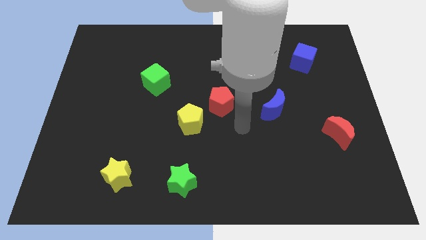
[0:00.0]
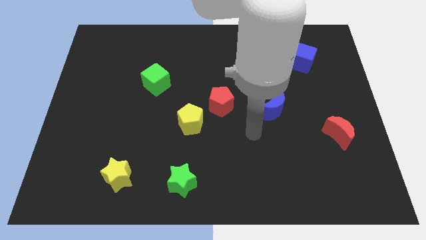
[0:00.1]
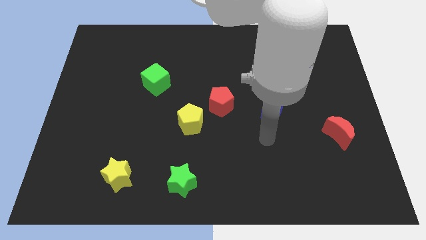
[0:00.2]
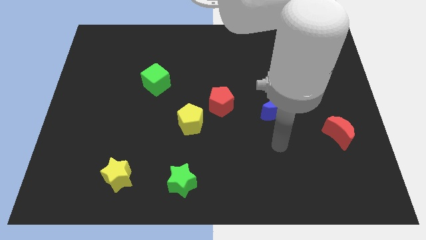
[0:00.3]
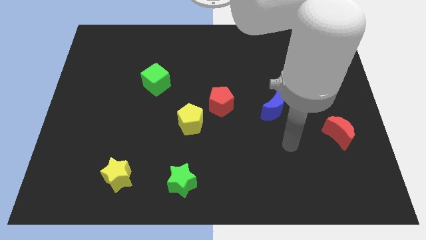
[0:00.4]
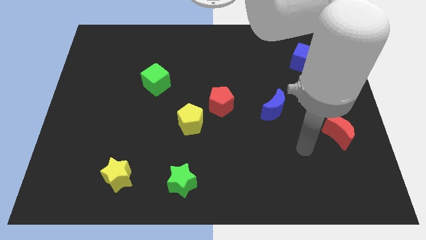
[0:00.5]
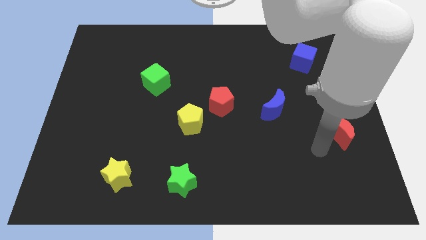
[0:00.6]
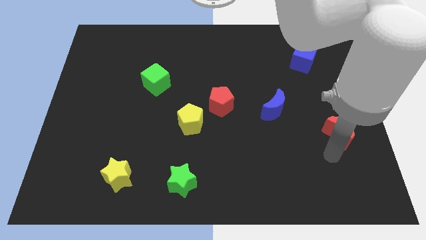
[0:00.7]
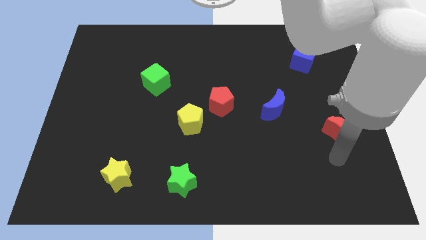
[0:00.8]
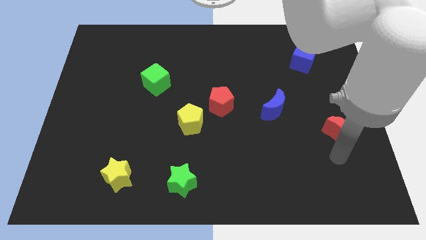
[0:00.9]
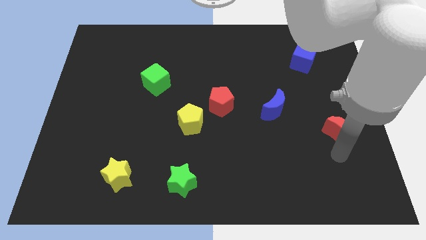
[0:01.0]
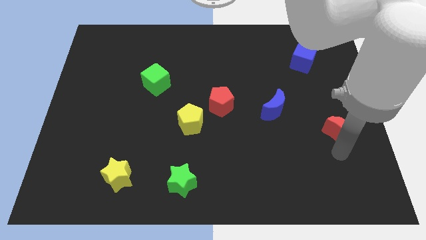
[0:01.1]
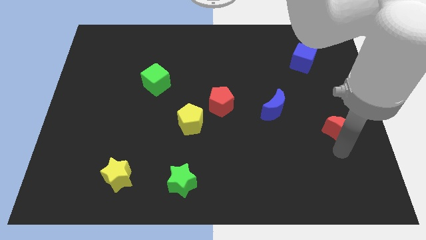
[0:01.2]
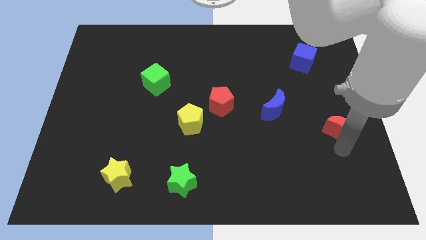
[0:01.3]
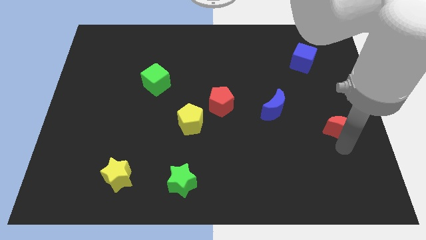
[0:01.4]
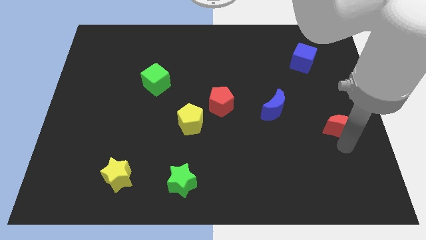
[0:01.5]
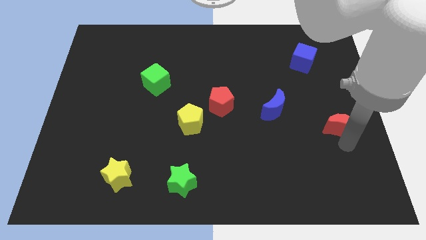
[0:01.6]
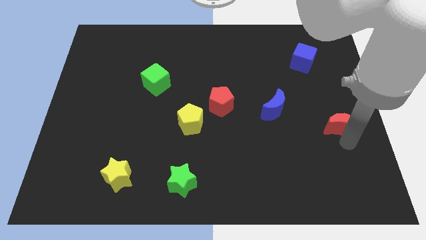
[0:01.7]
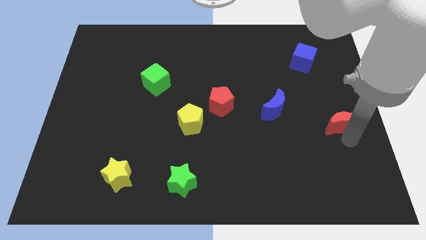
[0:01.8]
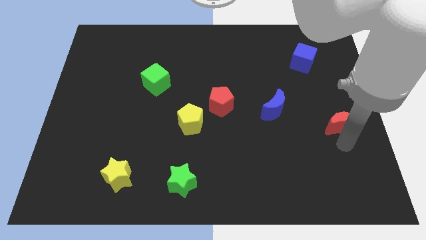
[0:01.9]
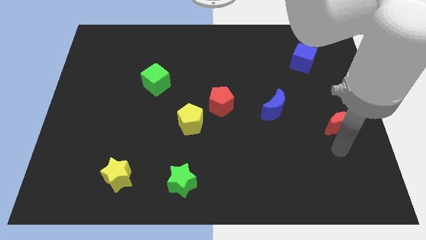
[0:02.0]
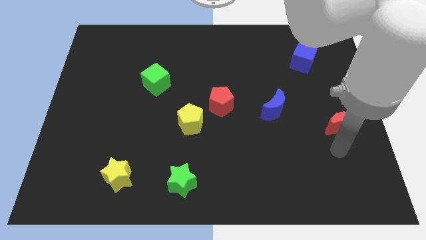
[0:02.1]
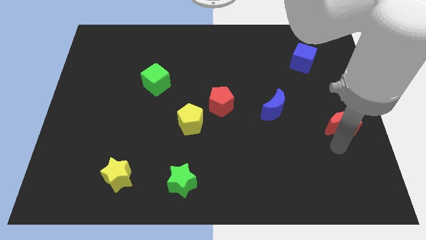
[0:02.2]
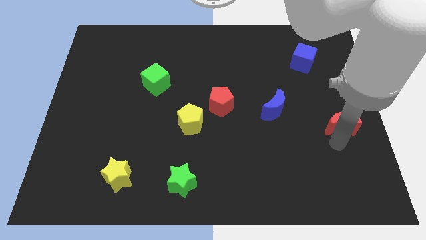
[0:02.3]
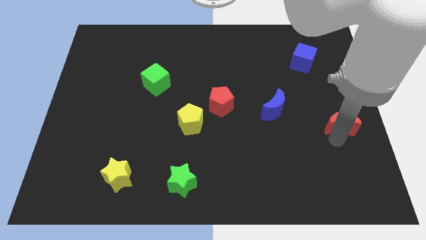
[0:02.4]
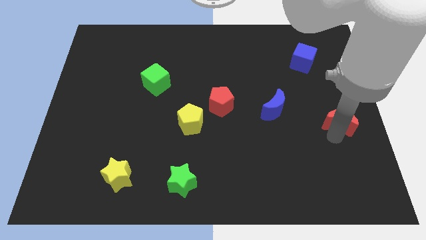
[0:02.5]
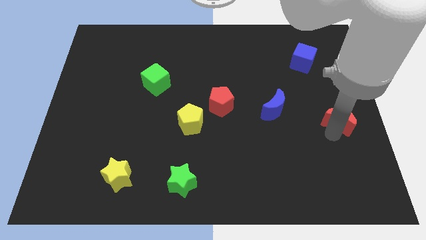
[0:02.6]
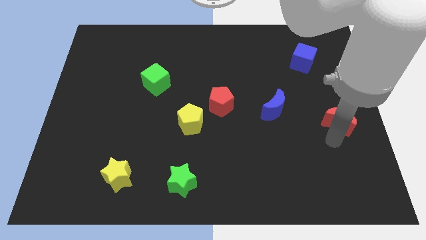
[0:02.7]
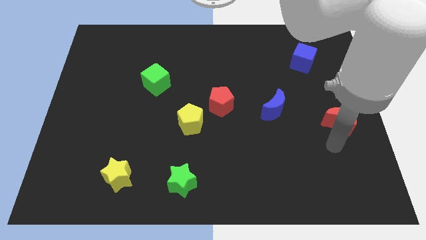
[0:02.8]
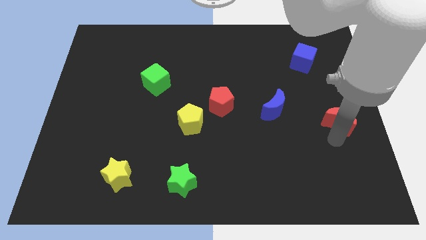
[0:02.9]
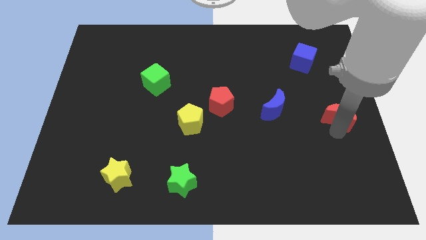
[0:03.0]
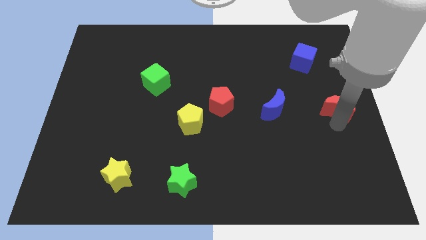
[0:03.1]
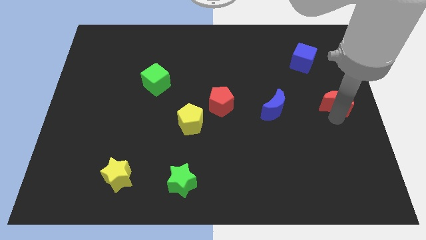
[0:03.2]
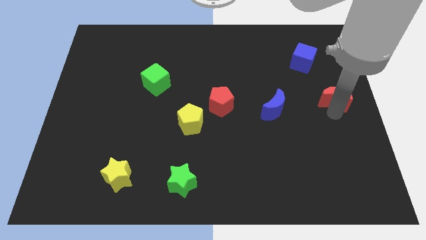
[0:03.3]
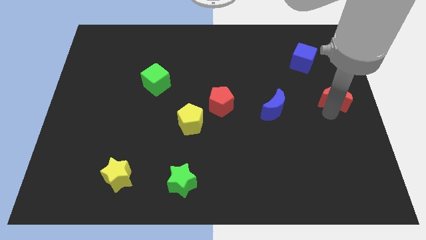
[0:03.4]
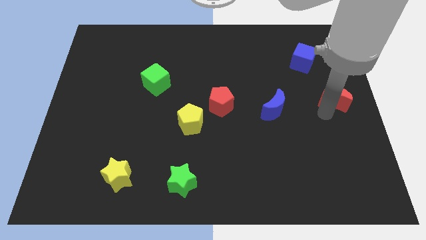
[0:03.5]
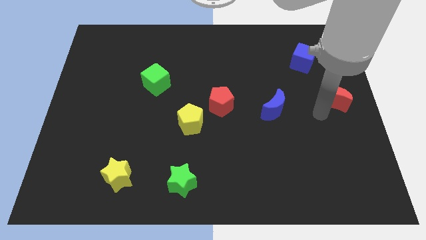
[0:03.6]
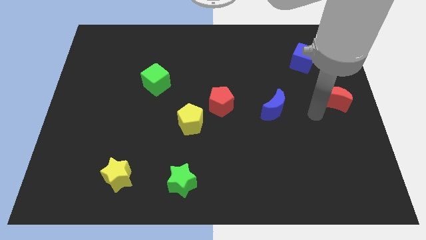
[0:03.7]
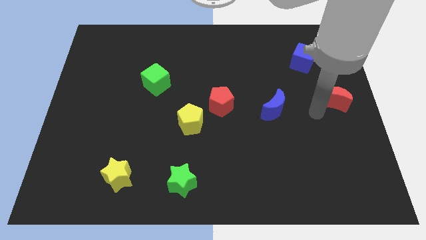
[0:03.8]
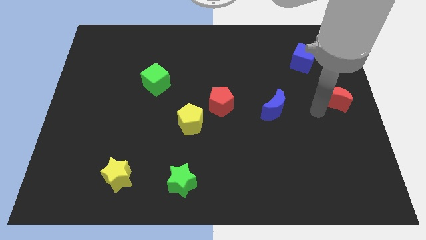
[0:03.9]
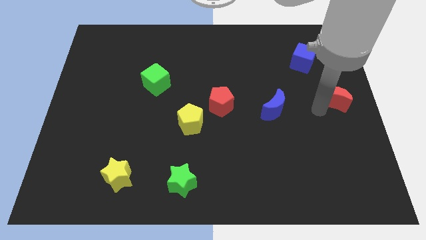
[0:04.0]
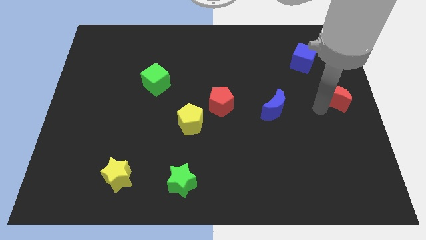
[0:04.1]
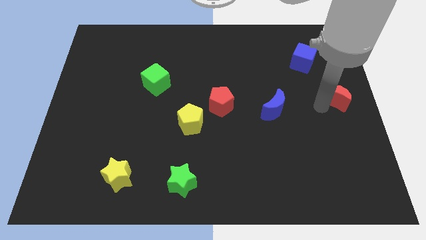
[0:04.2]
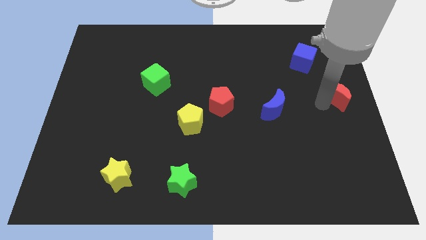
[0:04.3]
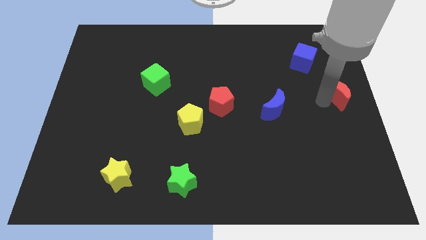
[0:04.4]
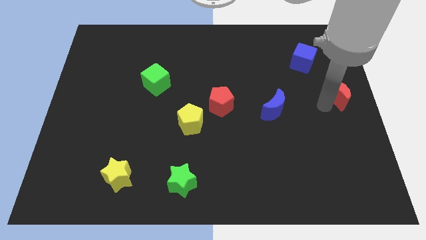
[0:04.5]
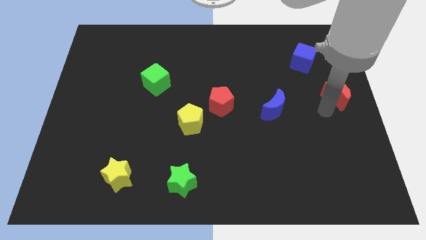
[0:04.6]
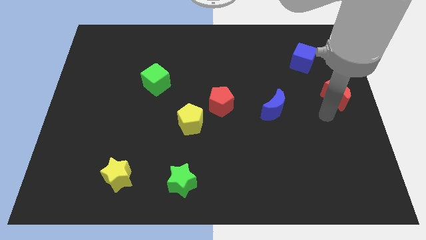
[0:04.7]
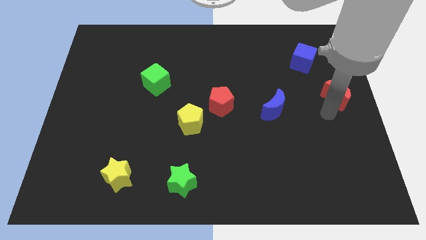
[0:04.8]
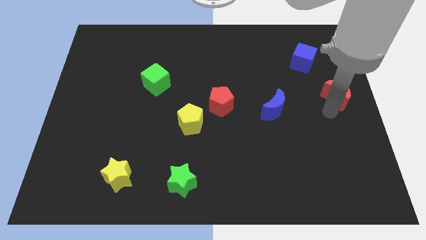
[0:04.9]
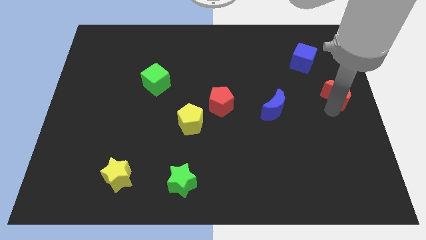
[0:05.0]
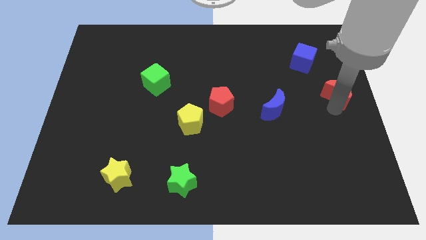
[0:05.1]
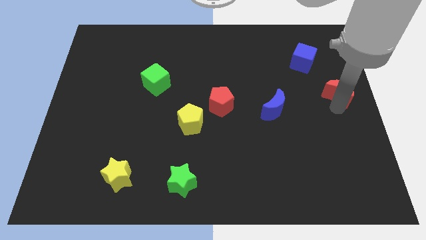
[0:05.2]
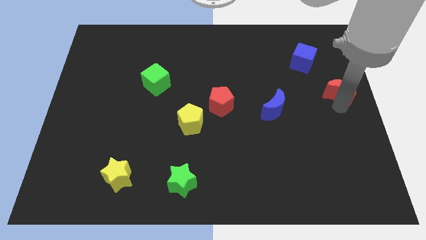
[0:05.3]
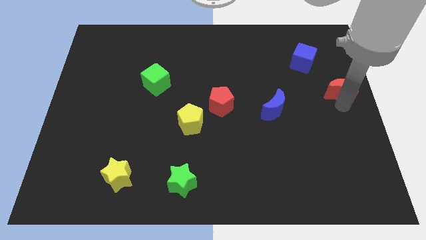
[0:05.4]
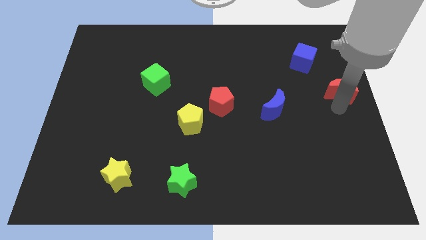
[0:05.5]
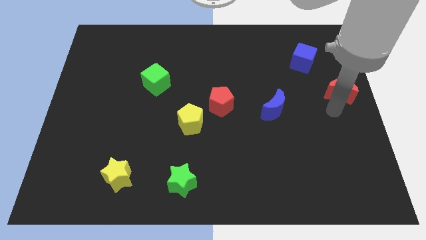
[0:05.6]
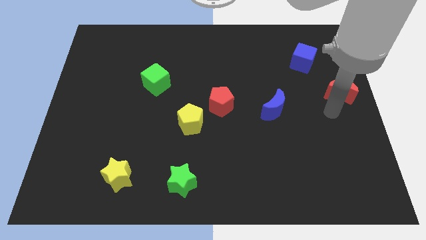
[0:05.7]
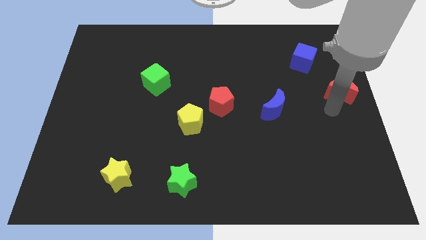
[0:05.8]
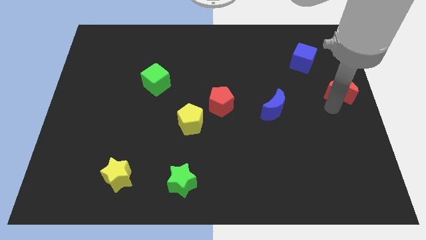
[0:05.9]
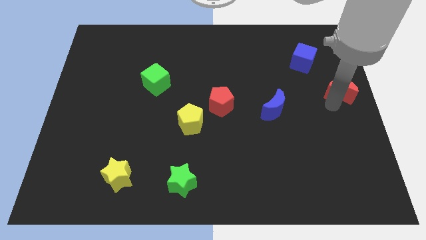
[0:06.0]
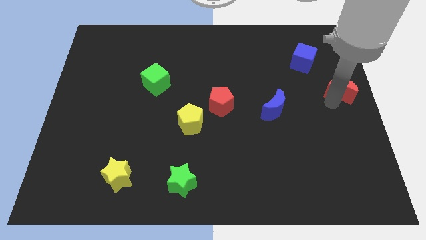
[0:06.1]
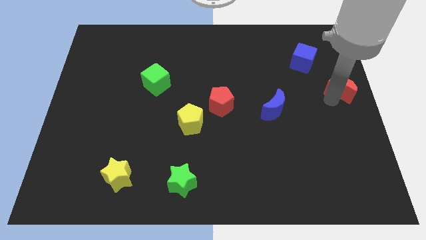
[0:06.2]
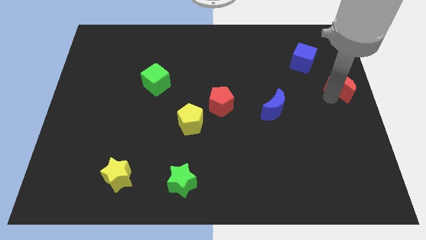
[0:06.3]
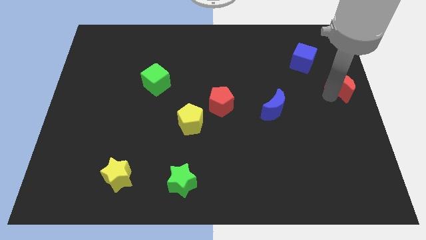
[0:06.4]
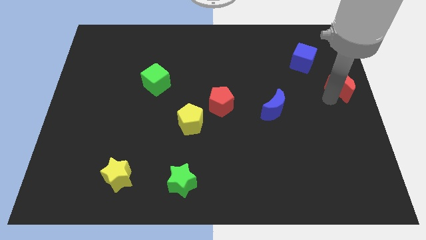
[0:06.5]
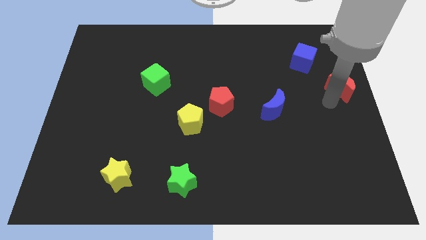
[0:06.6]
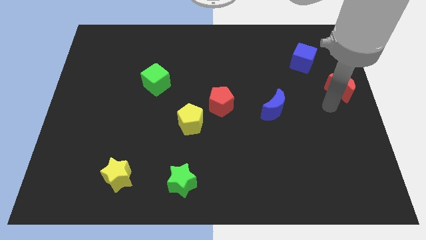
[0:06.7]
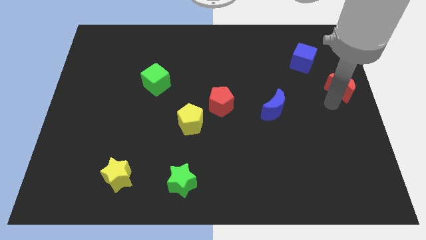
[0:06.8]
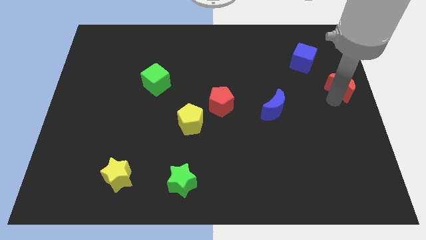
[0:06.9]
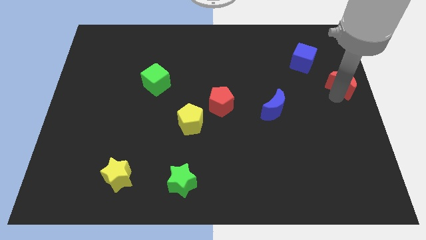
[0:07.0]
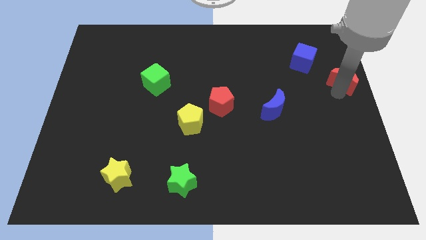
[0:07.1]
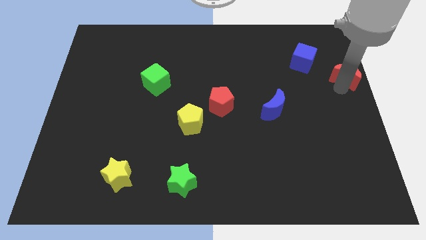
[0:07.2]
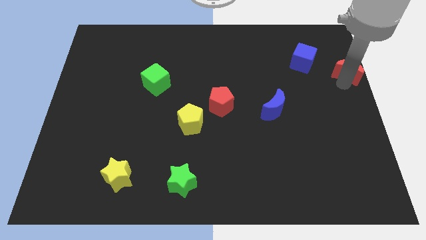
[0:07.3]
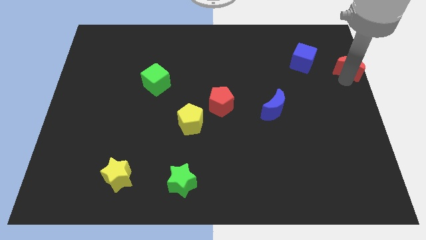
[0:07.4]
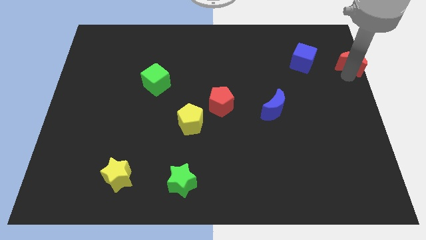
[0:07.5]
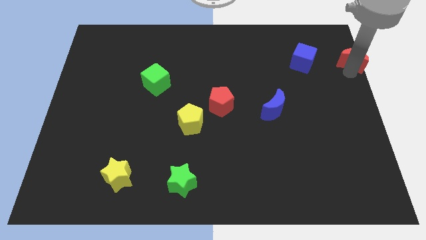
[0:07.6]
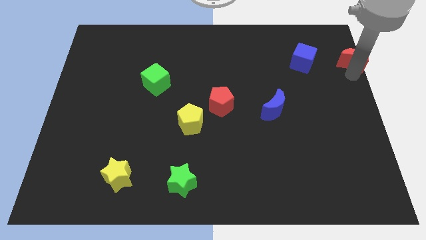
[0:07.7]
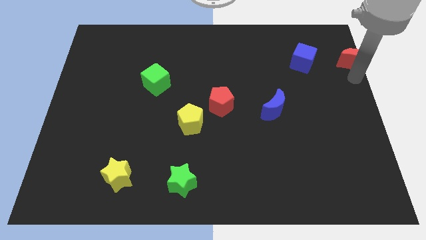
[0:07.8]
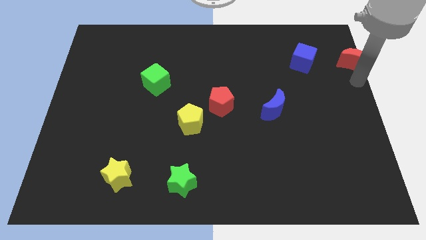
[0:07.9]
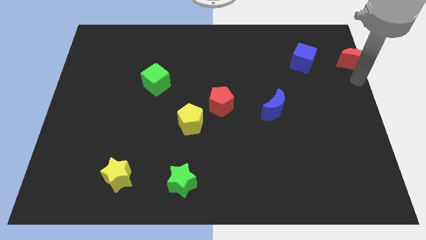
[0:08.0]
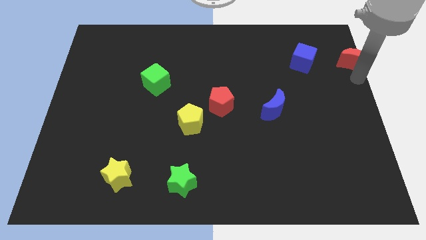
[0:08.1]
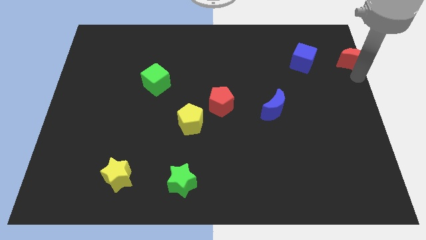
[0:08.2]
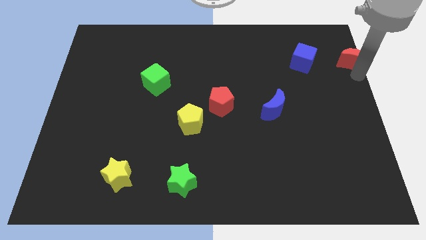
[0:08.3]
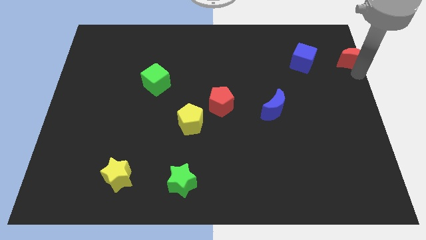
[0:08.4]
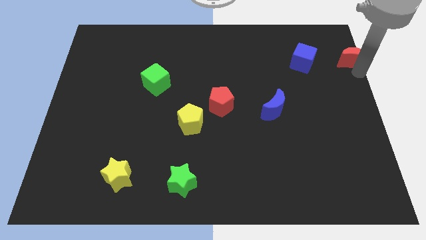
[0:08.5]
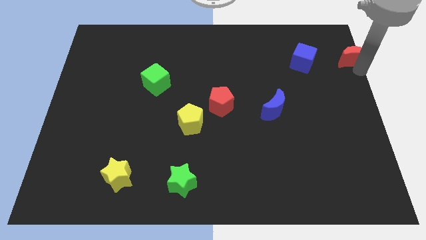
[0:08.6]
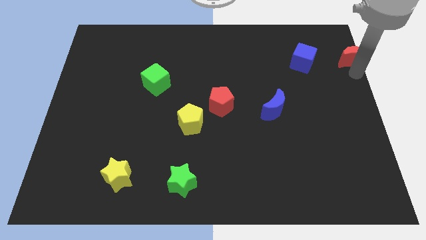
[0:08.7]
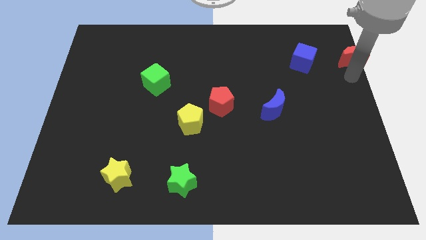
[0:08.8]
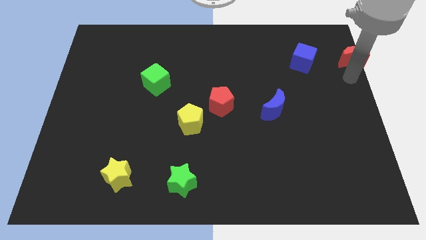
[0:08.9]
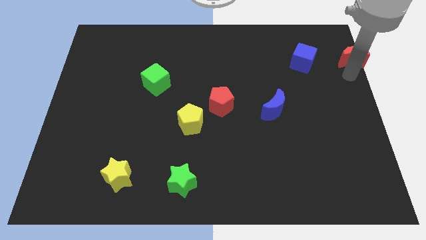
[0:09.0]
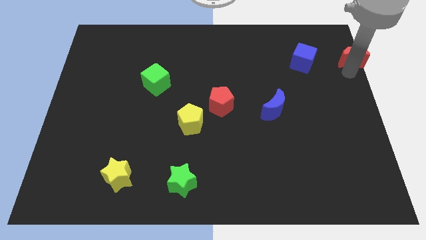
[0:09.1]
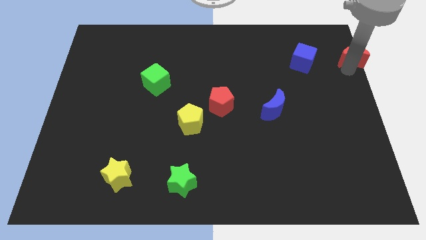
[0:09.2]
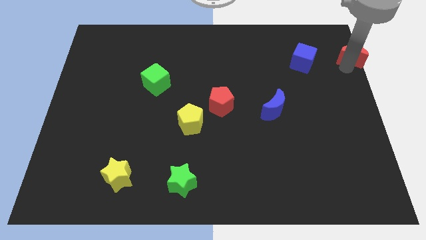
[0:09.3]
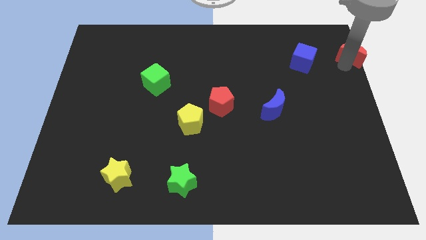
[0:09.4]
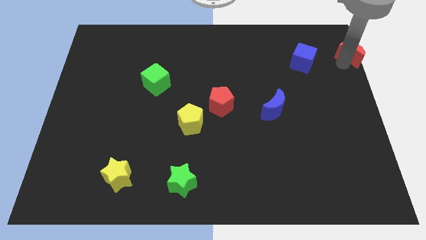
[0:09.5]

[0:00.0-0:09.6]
put the red moon to the top right of the board
